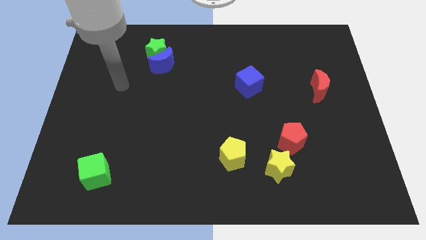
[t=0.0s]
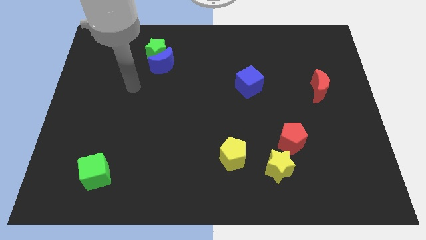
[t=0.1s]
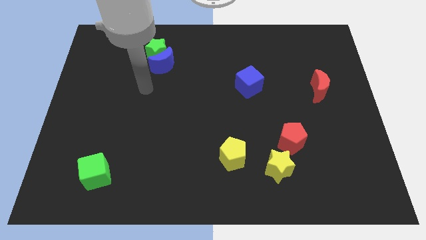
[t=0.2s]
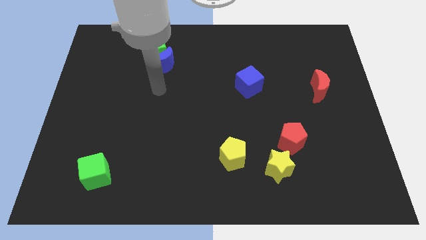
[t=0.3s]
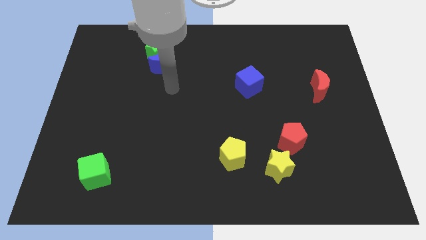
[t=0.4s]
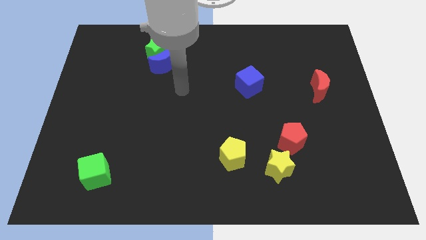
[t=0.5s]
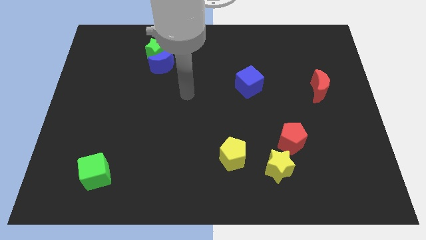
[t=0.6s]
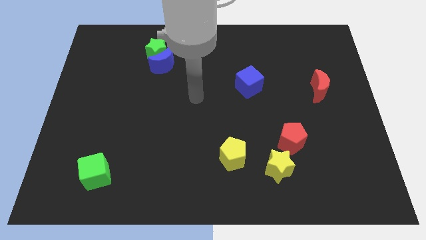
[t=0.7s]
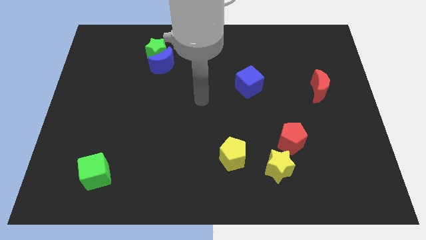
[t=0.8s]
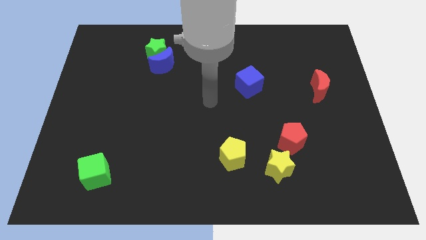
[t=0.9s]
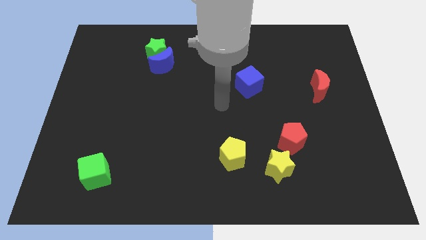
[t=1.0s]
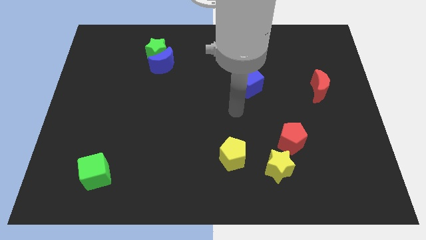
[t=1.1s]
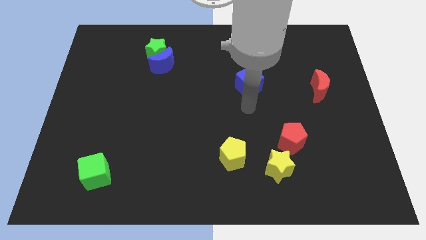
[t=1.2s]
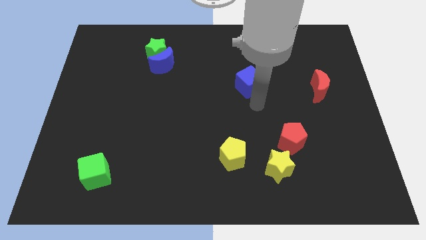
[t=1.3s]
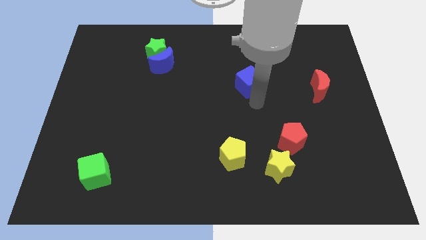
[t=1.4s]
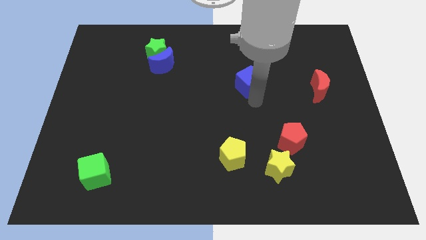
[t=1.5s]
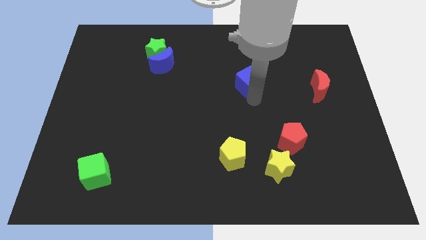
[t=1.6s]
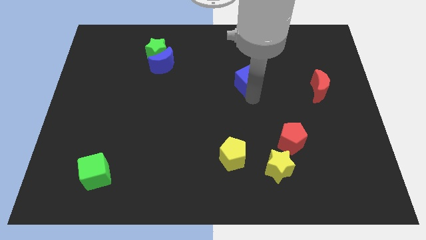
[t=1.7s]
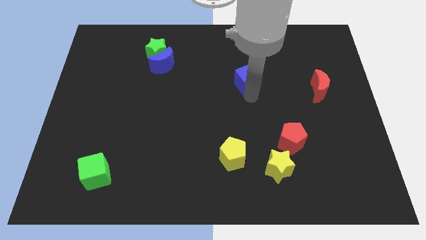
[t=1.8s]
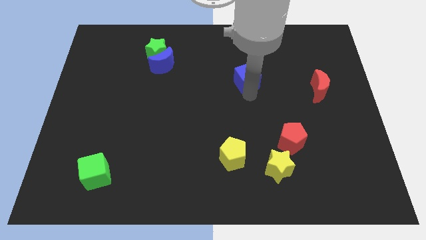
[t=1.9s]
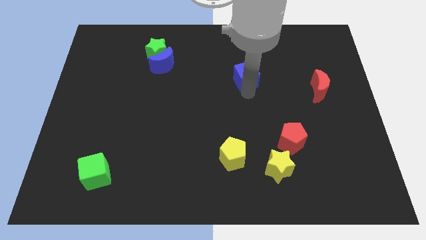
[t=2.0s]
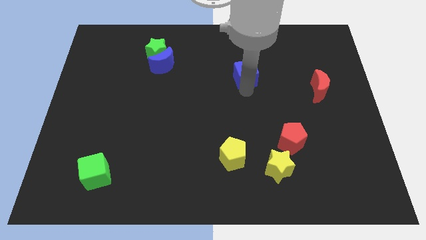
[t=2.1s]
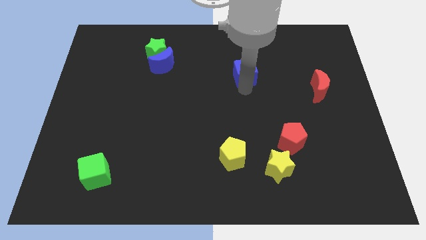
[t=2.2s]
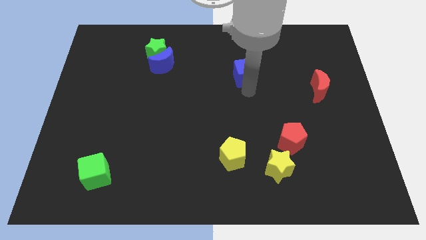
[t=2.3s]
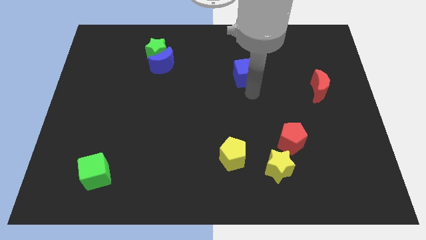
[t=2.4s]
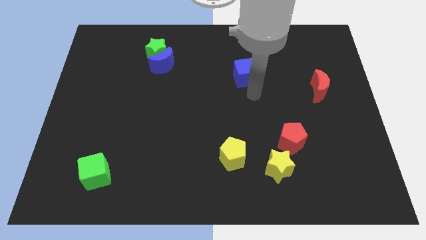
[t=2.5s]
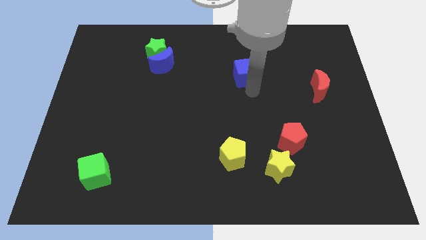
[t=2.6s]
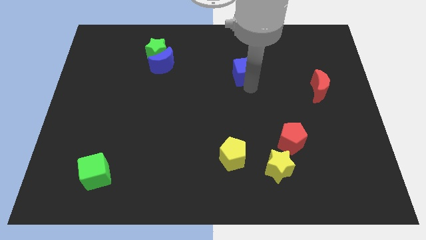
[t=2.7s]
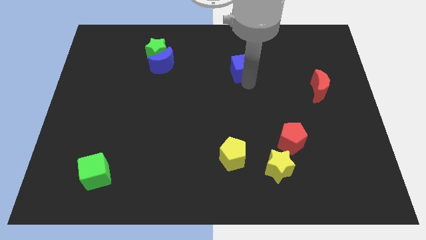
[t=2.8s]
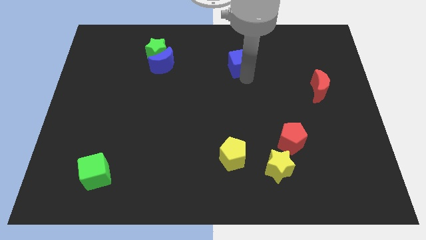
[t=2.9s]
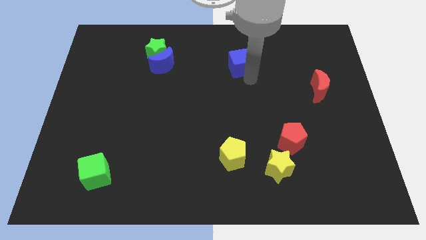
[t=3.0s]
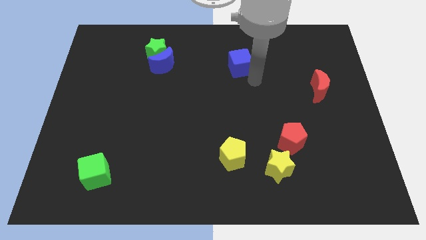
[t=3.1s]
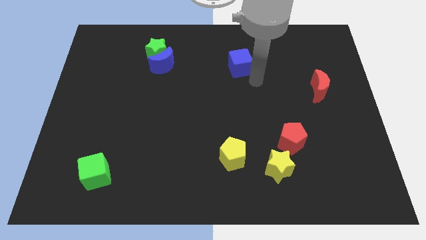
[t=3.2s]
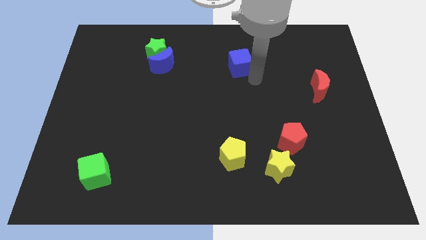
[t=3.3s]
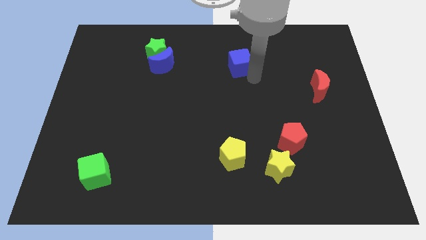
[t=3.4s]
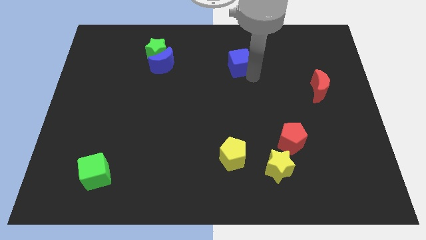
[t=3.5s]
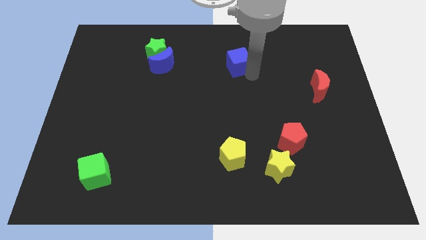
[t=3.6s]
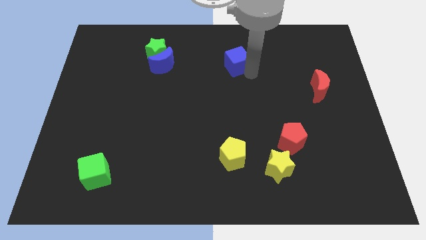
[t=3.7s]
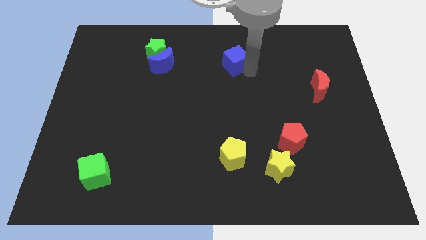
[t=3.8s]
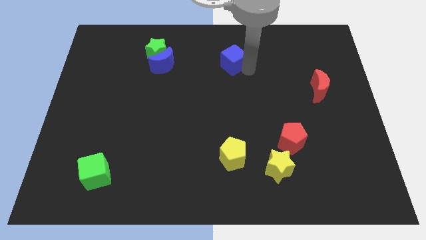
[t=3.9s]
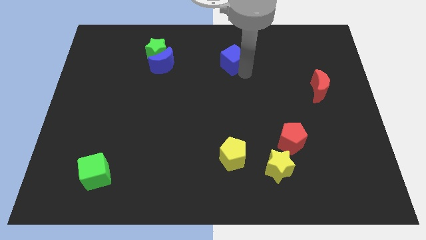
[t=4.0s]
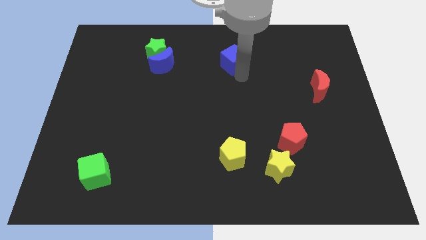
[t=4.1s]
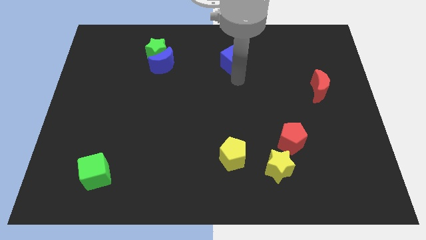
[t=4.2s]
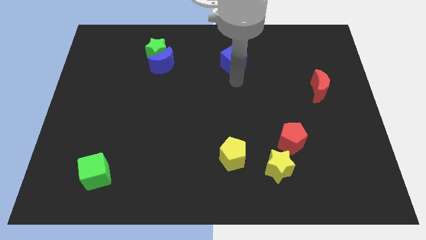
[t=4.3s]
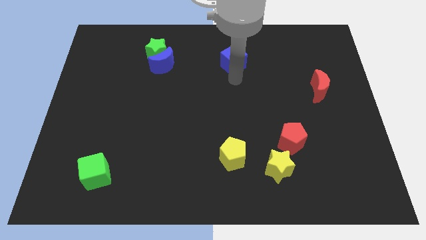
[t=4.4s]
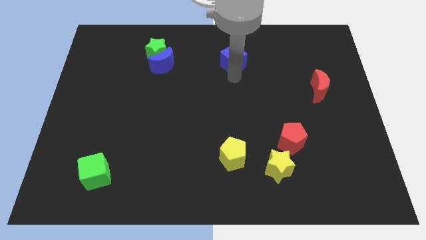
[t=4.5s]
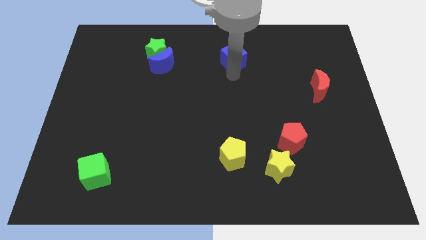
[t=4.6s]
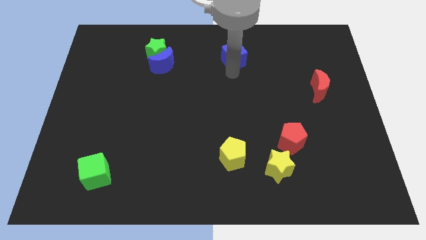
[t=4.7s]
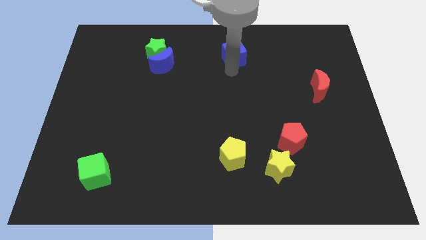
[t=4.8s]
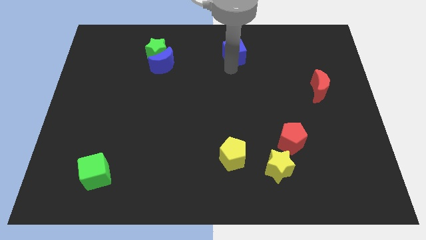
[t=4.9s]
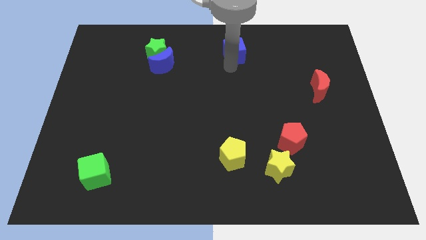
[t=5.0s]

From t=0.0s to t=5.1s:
put the blue cube to the top side

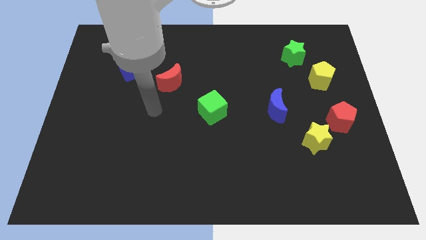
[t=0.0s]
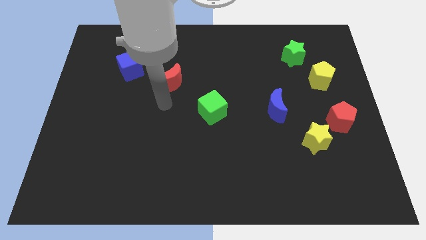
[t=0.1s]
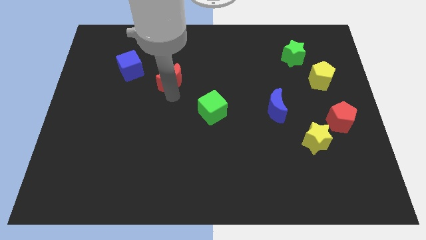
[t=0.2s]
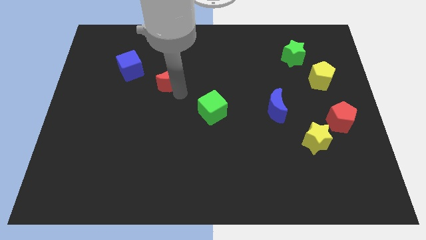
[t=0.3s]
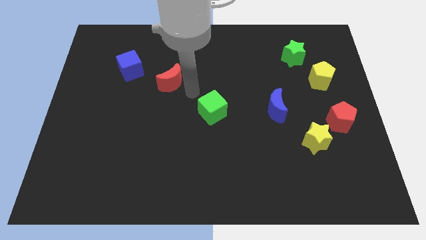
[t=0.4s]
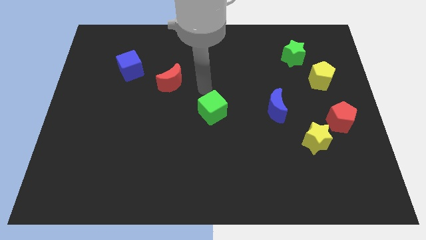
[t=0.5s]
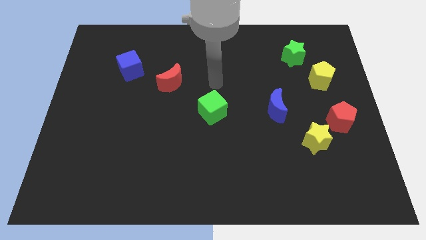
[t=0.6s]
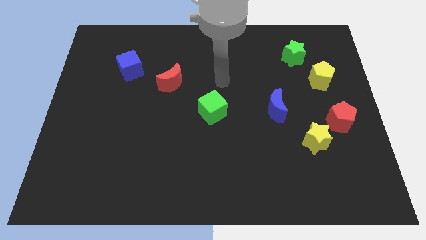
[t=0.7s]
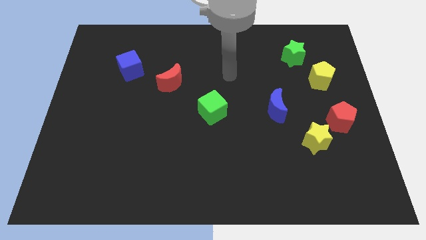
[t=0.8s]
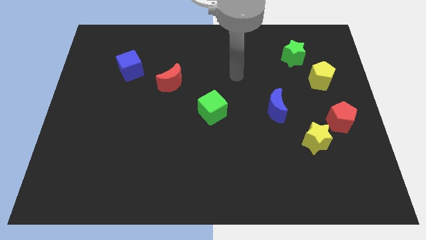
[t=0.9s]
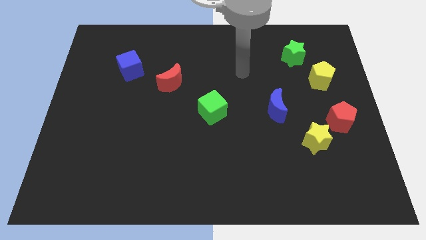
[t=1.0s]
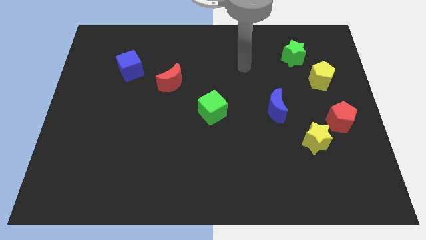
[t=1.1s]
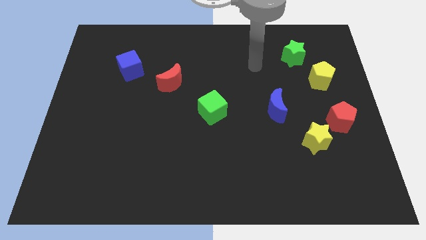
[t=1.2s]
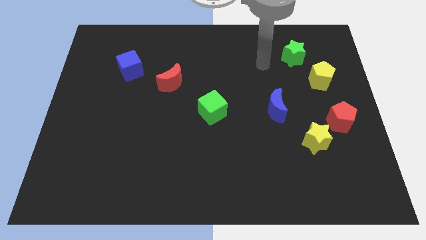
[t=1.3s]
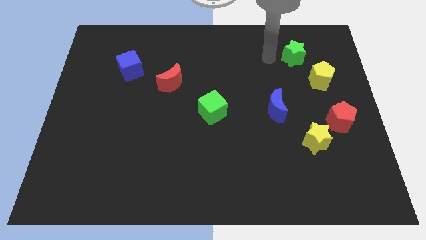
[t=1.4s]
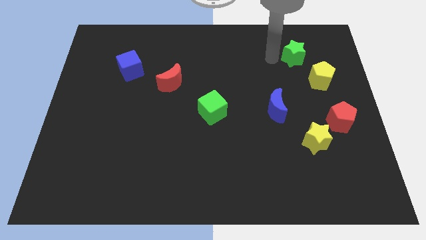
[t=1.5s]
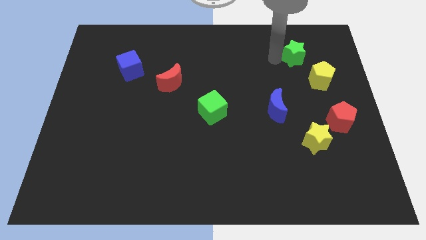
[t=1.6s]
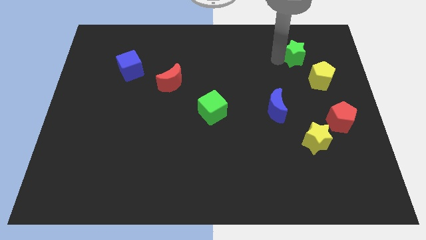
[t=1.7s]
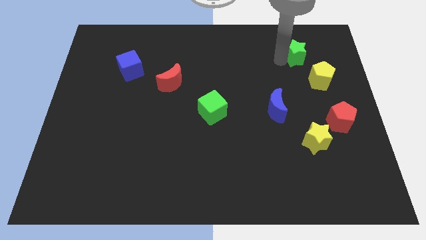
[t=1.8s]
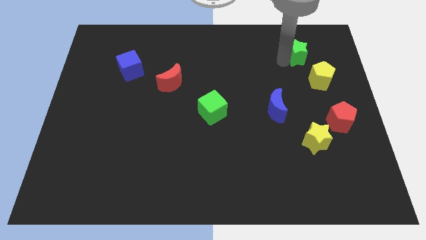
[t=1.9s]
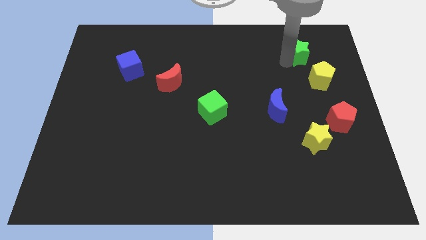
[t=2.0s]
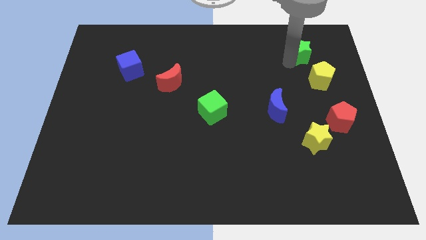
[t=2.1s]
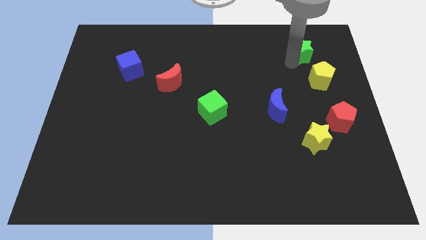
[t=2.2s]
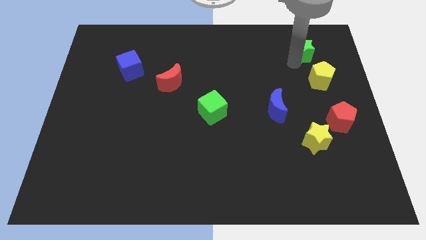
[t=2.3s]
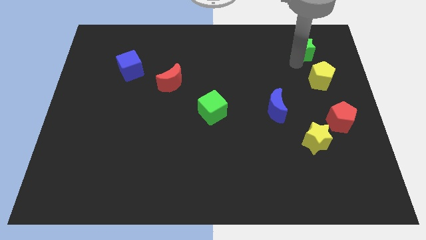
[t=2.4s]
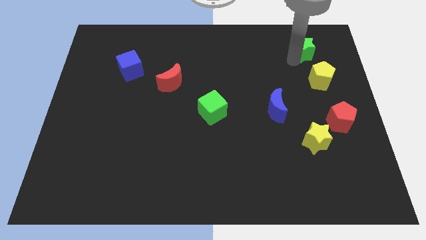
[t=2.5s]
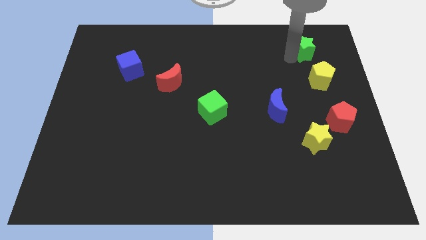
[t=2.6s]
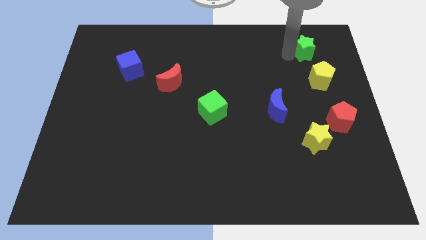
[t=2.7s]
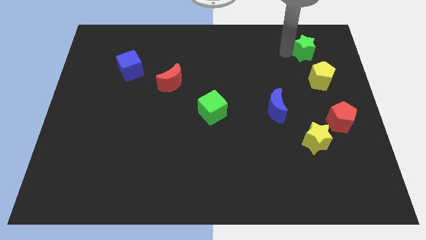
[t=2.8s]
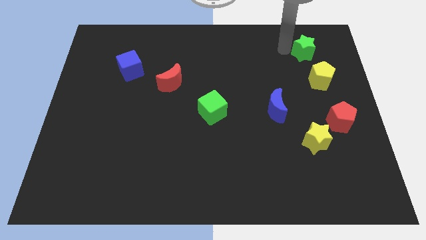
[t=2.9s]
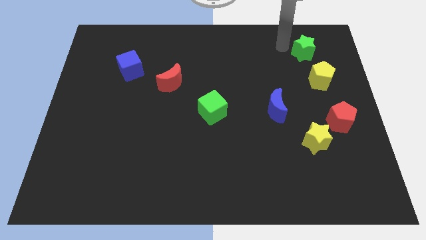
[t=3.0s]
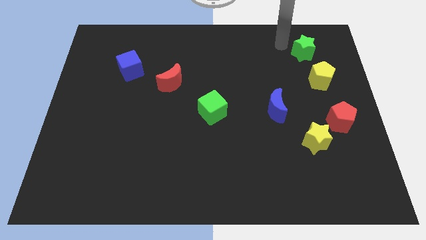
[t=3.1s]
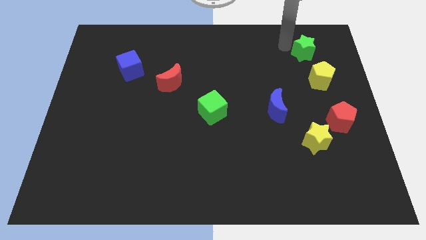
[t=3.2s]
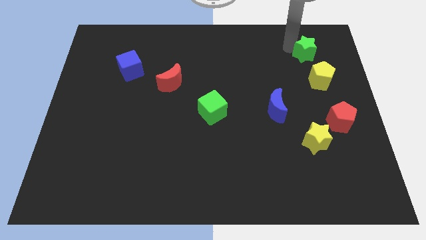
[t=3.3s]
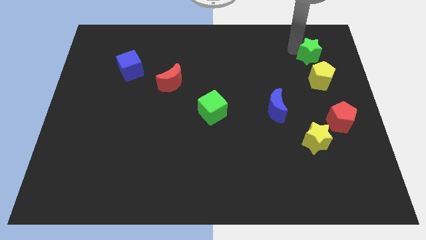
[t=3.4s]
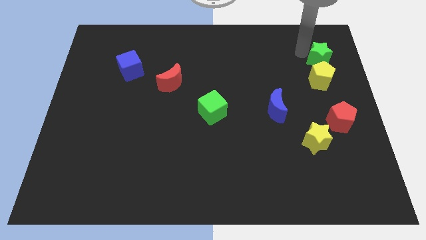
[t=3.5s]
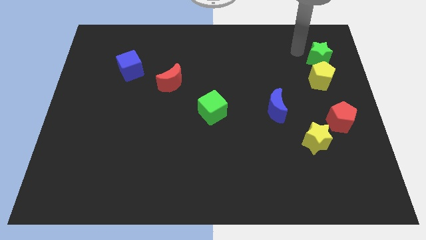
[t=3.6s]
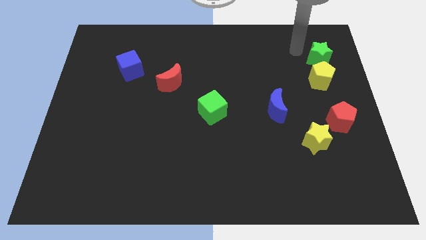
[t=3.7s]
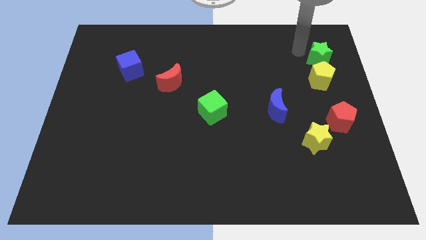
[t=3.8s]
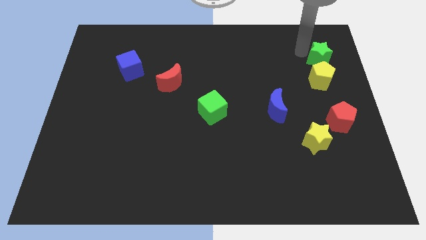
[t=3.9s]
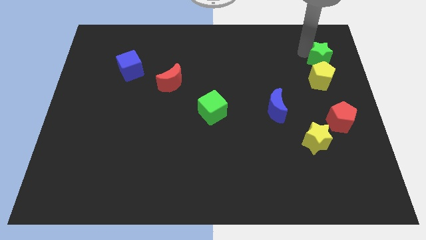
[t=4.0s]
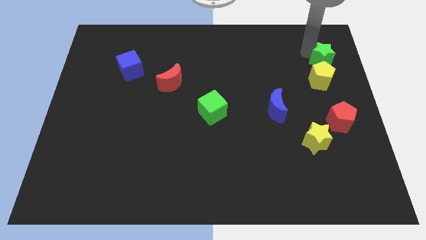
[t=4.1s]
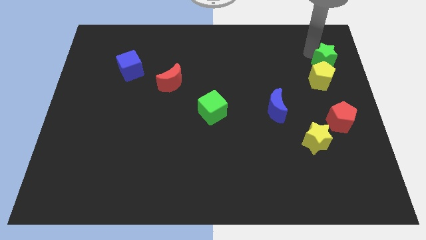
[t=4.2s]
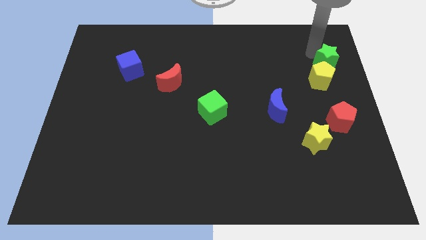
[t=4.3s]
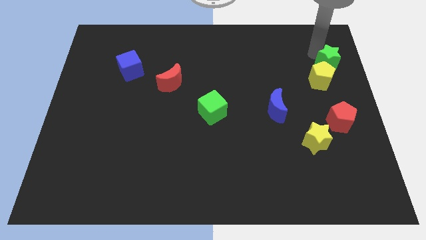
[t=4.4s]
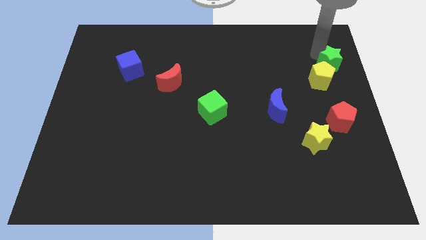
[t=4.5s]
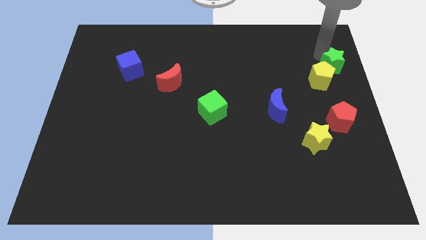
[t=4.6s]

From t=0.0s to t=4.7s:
slide the green star to the right side of the board
